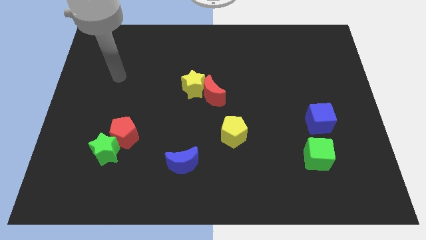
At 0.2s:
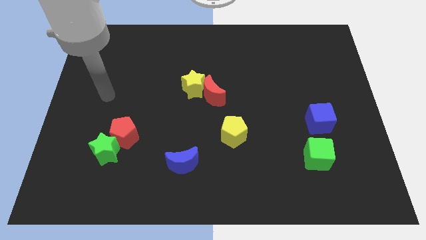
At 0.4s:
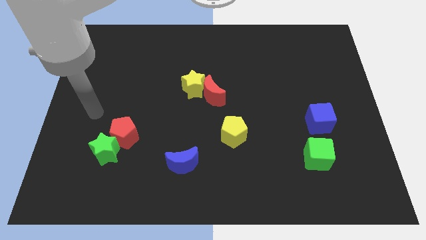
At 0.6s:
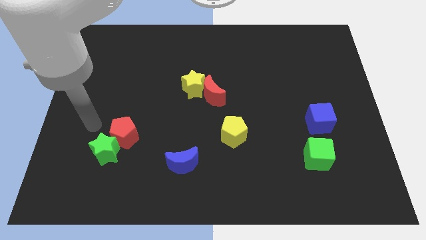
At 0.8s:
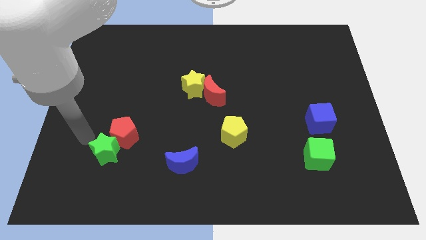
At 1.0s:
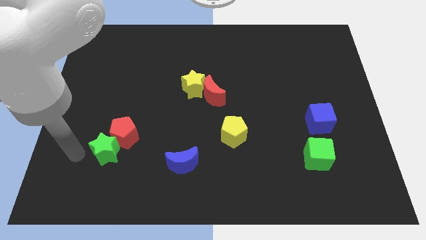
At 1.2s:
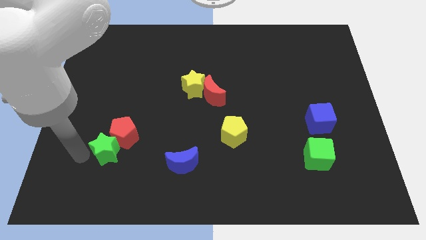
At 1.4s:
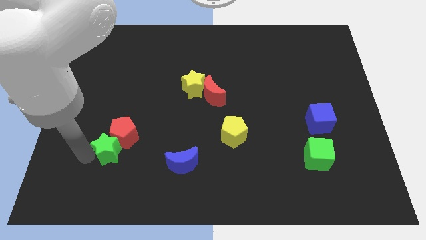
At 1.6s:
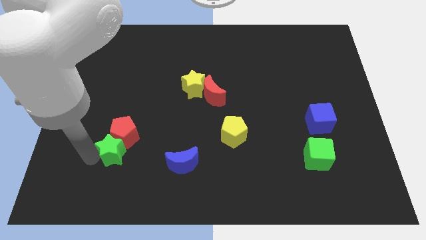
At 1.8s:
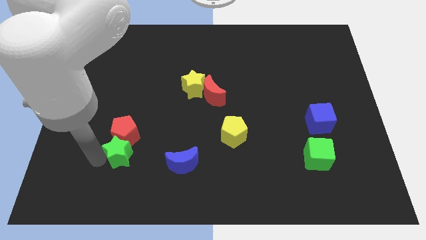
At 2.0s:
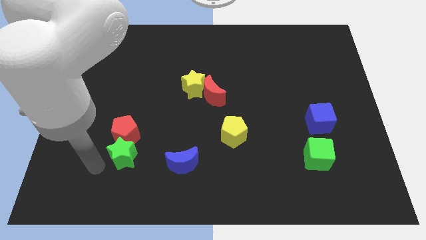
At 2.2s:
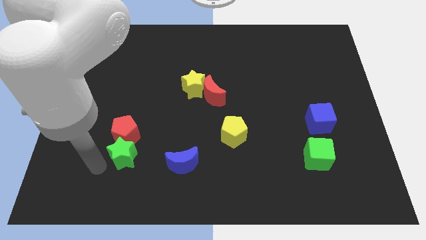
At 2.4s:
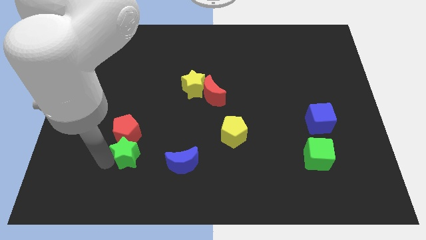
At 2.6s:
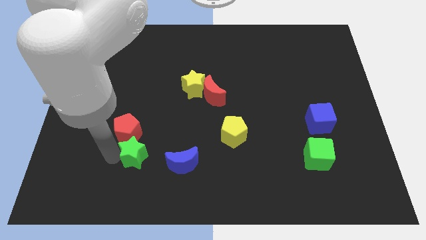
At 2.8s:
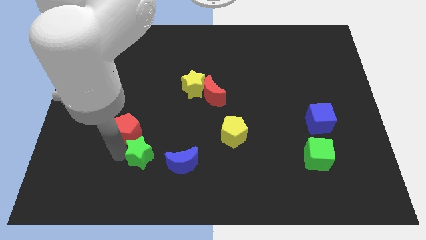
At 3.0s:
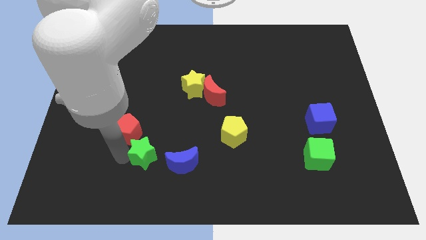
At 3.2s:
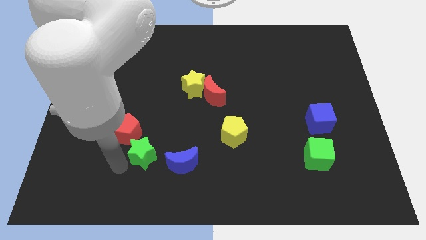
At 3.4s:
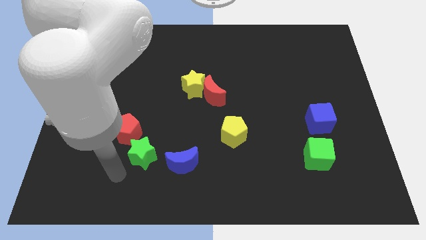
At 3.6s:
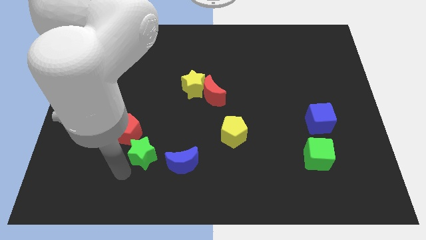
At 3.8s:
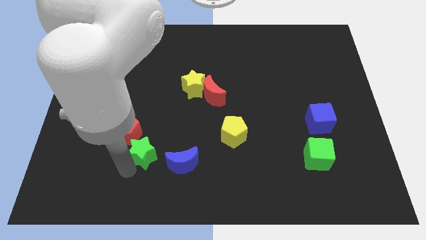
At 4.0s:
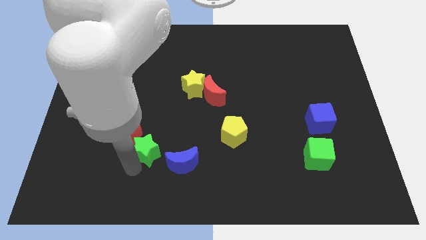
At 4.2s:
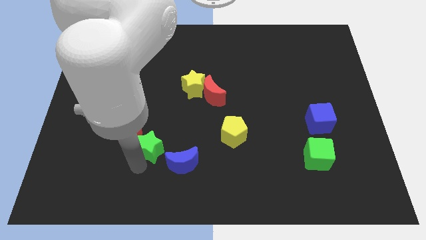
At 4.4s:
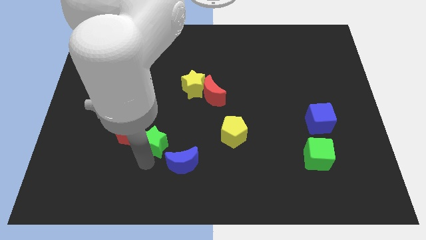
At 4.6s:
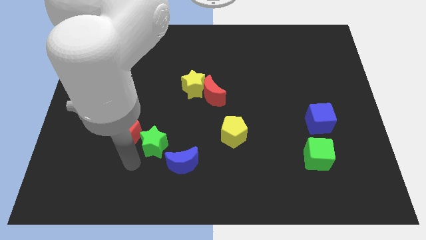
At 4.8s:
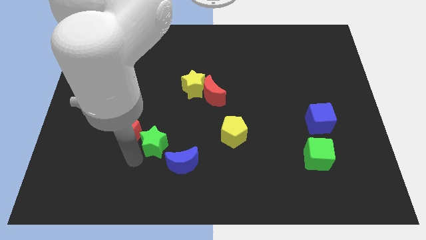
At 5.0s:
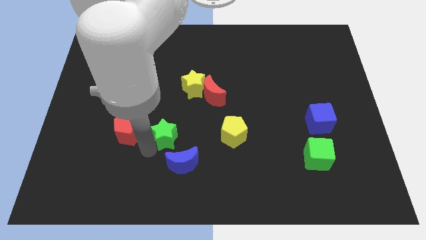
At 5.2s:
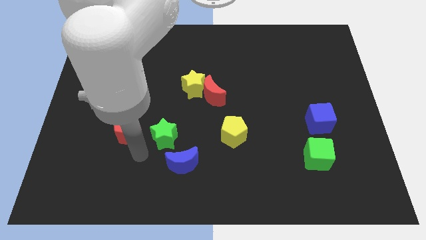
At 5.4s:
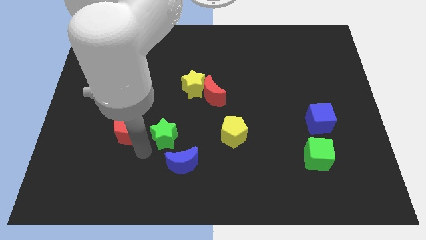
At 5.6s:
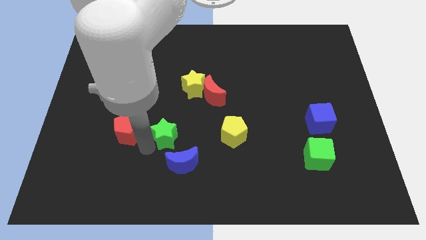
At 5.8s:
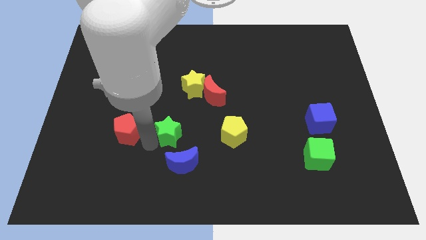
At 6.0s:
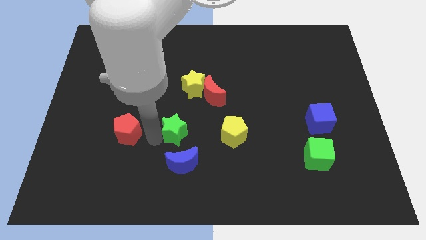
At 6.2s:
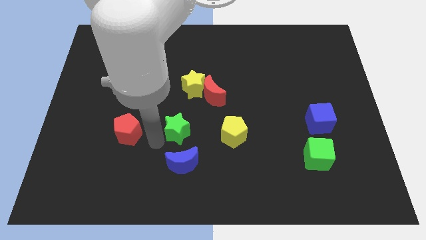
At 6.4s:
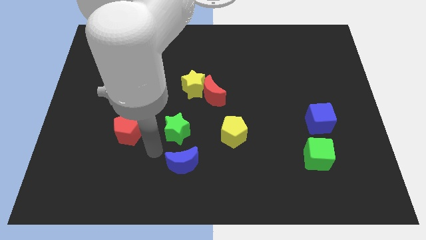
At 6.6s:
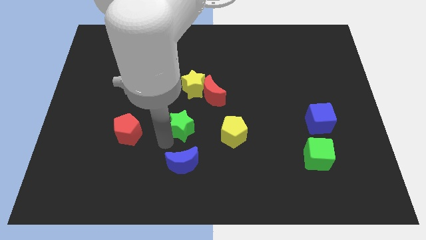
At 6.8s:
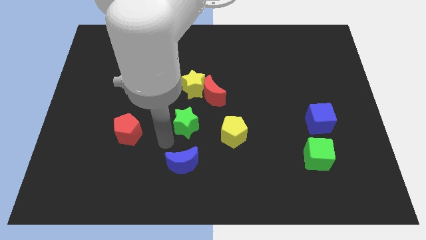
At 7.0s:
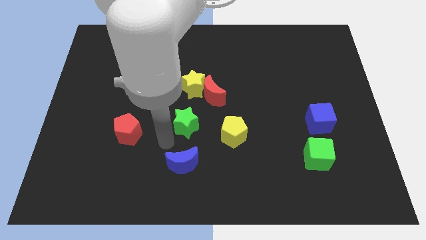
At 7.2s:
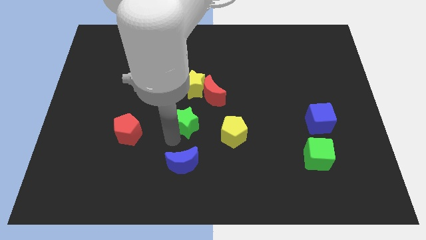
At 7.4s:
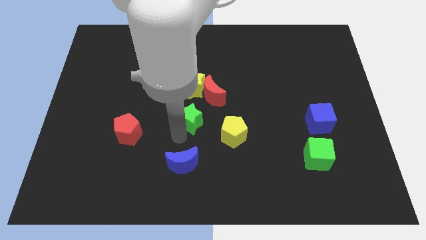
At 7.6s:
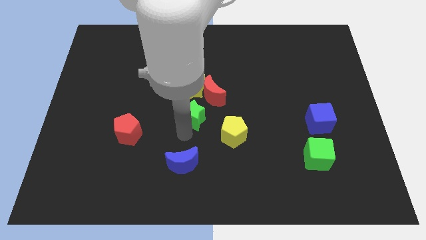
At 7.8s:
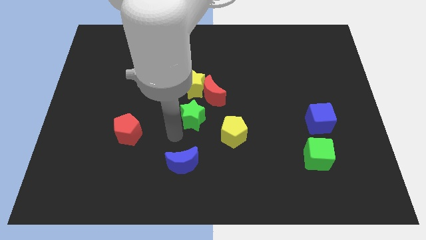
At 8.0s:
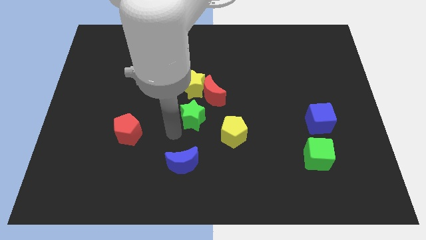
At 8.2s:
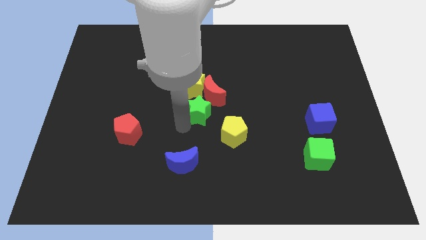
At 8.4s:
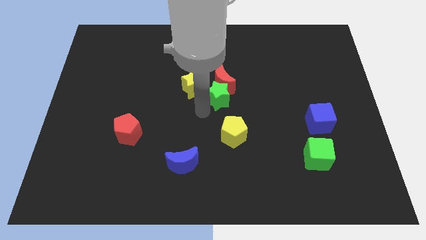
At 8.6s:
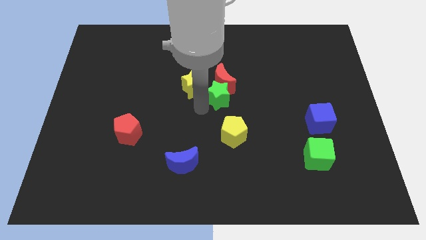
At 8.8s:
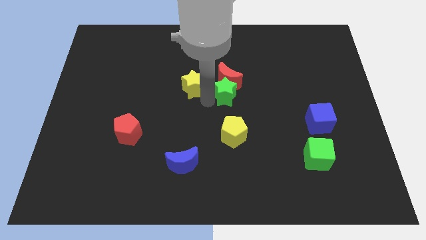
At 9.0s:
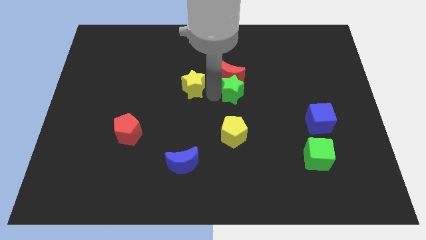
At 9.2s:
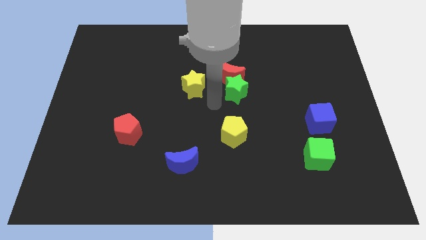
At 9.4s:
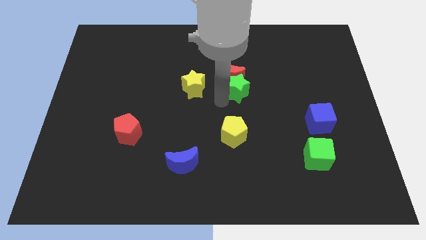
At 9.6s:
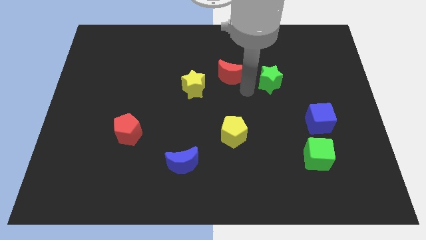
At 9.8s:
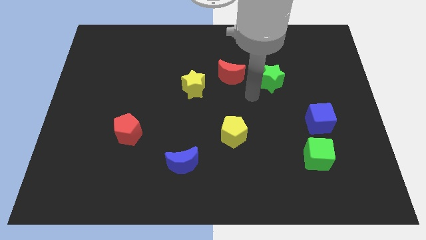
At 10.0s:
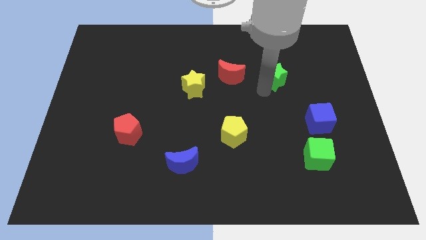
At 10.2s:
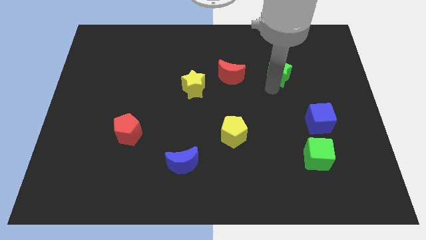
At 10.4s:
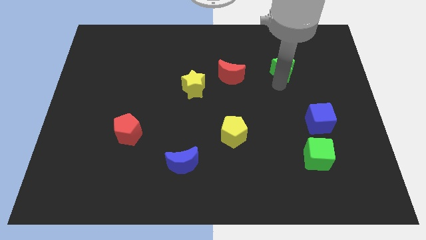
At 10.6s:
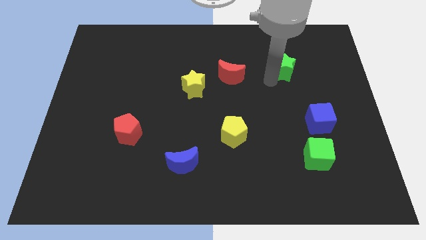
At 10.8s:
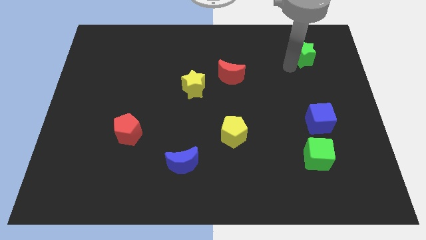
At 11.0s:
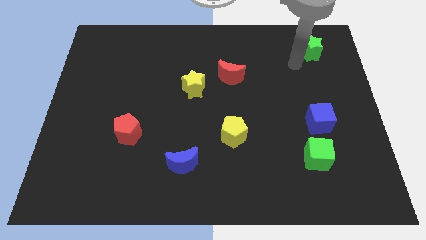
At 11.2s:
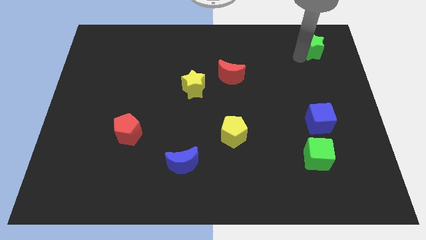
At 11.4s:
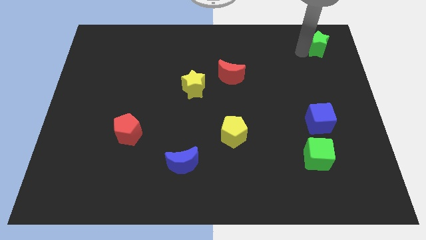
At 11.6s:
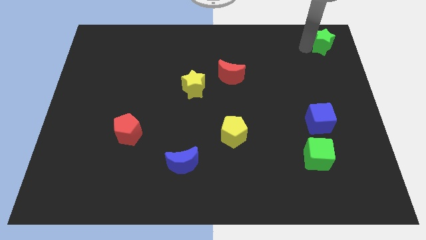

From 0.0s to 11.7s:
move the green star to the top right of the board
